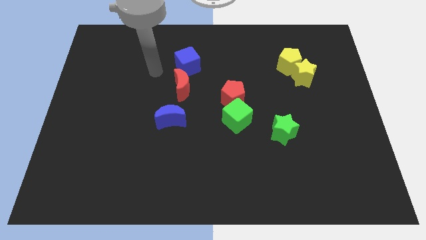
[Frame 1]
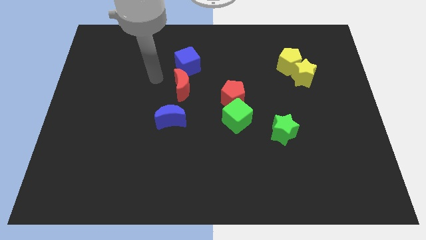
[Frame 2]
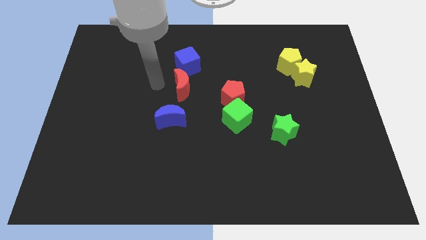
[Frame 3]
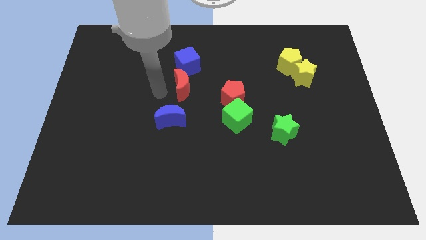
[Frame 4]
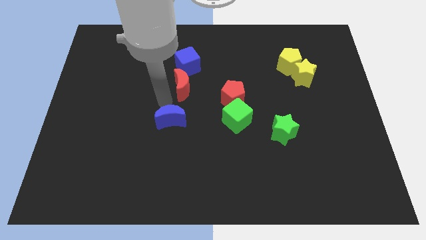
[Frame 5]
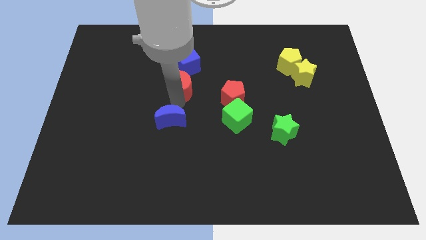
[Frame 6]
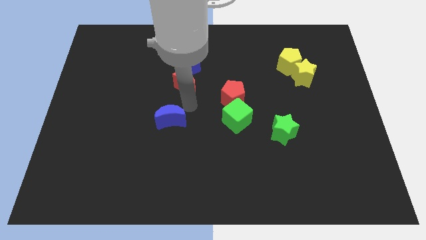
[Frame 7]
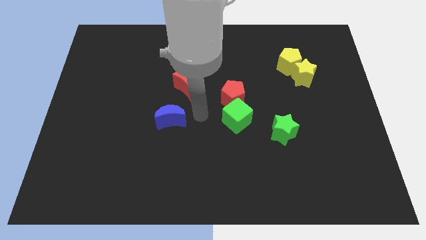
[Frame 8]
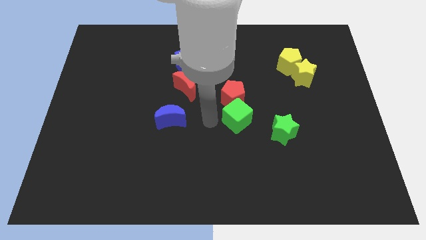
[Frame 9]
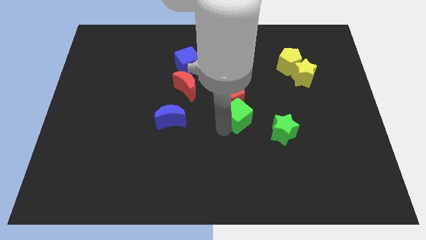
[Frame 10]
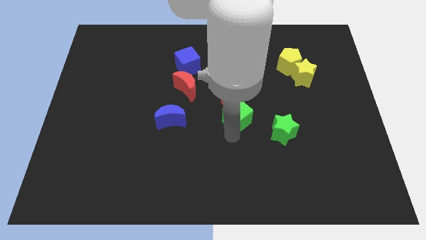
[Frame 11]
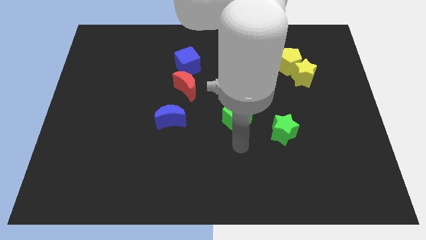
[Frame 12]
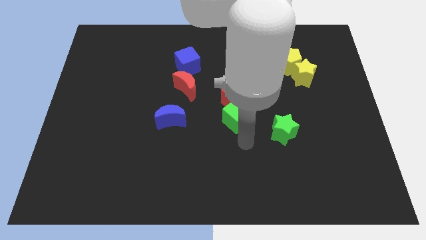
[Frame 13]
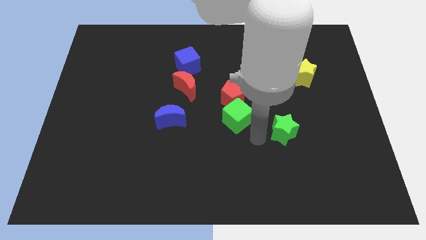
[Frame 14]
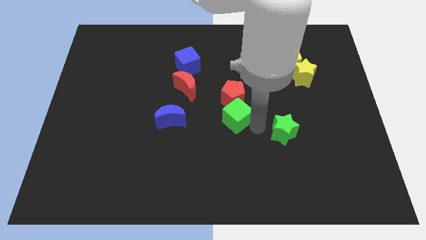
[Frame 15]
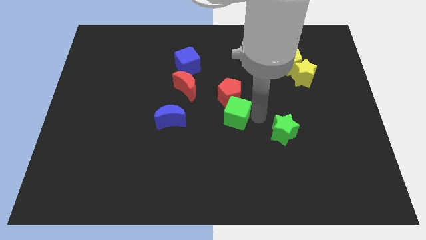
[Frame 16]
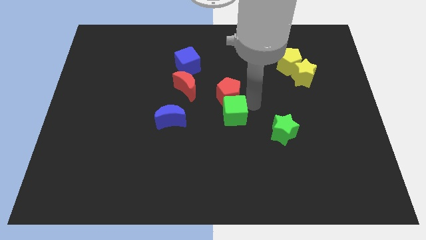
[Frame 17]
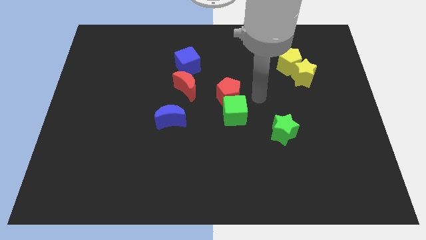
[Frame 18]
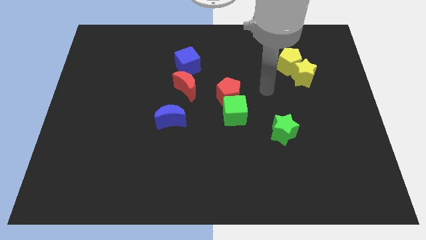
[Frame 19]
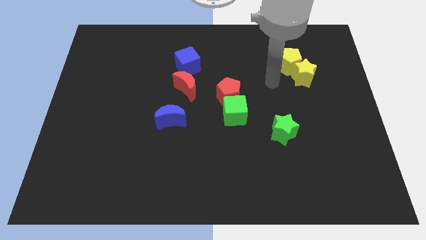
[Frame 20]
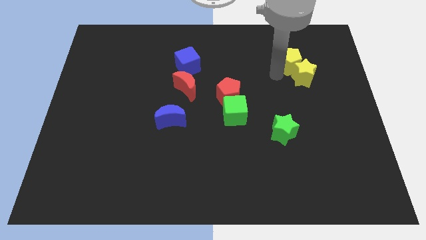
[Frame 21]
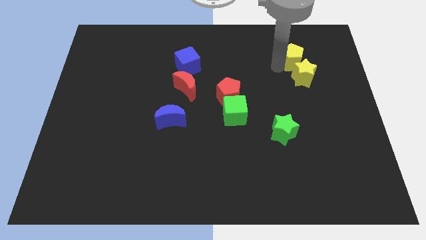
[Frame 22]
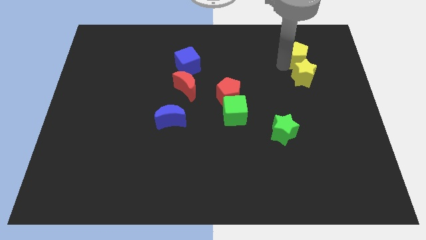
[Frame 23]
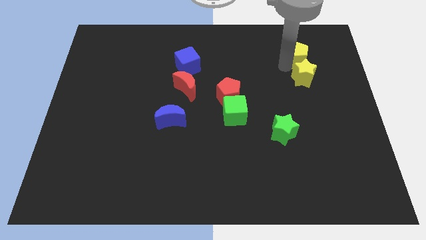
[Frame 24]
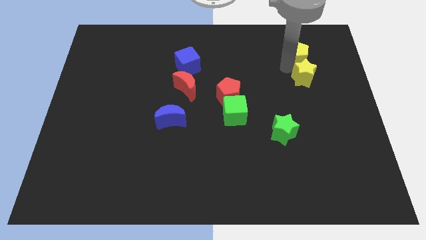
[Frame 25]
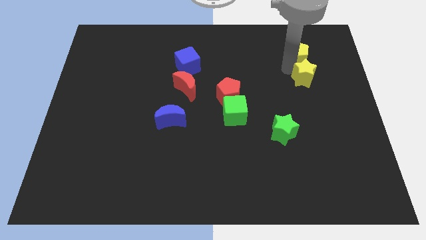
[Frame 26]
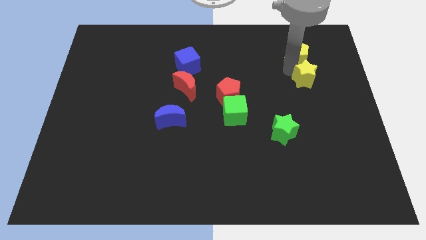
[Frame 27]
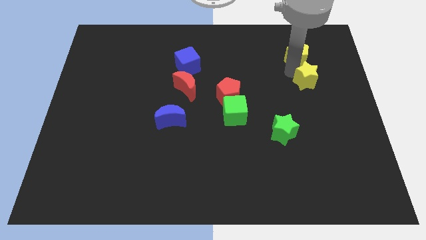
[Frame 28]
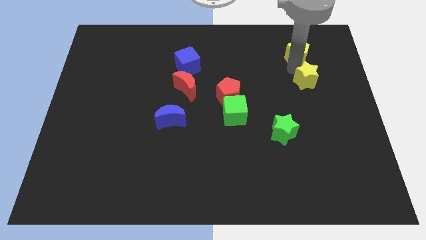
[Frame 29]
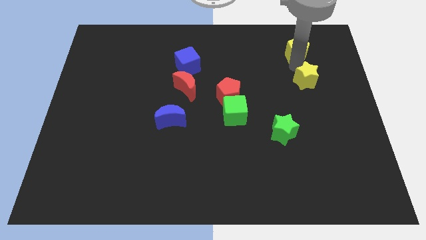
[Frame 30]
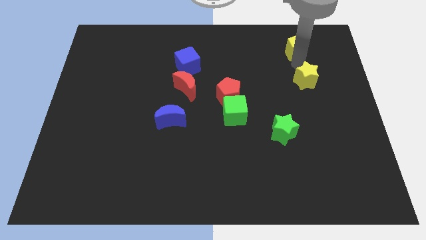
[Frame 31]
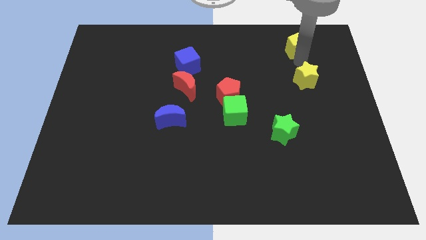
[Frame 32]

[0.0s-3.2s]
separate the yellow star from the yellow pentagon

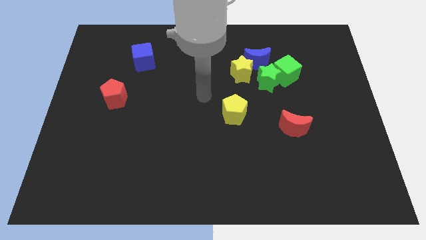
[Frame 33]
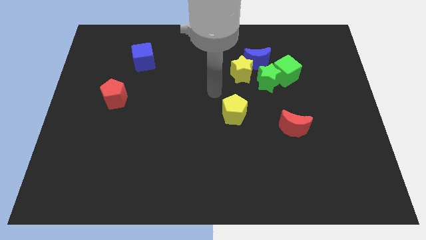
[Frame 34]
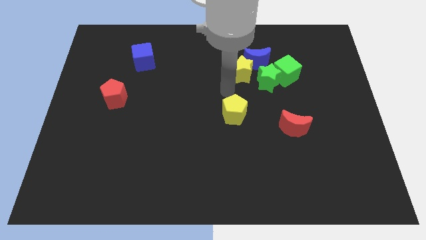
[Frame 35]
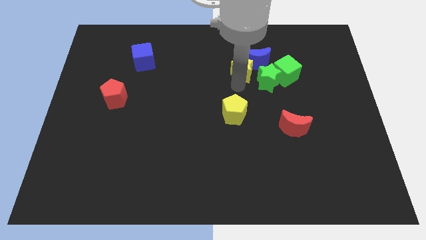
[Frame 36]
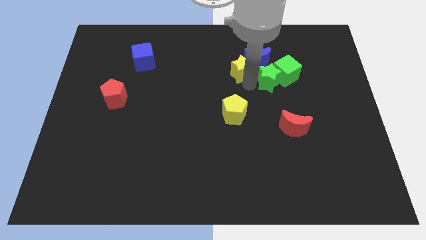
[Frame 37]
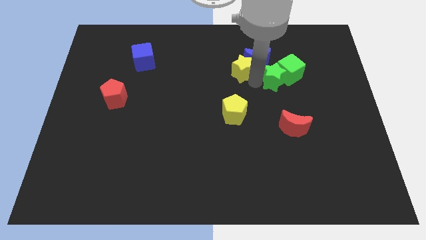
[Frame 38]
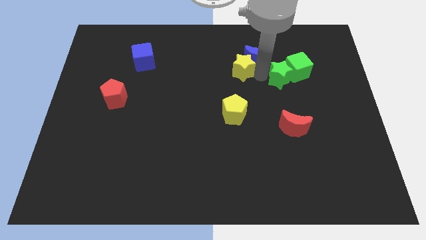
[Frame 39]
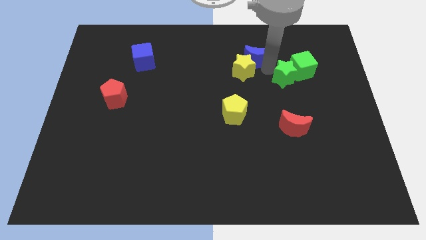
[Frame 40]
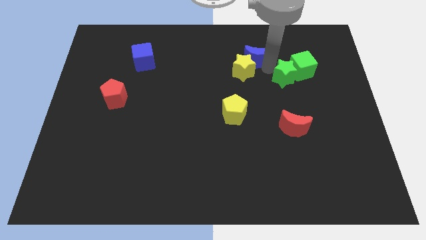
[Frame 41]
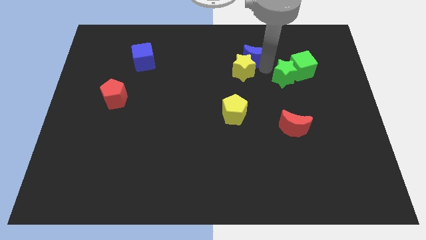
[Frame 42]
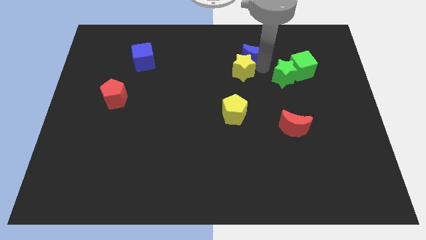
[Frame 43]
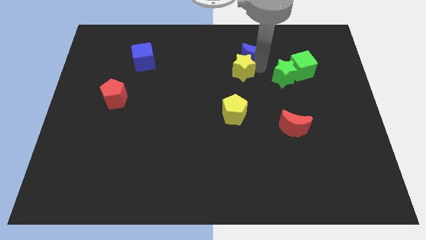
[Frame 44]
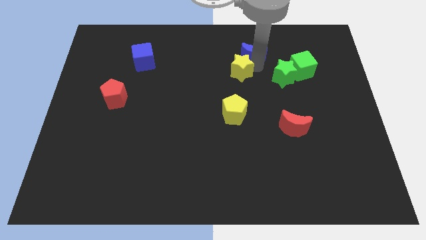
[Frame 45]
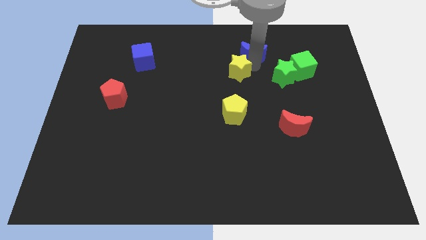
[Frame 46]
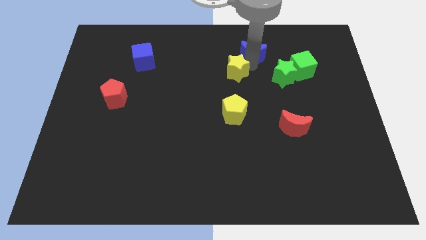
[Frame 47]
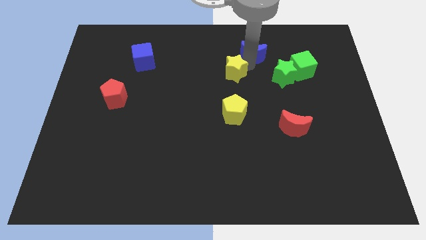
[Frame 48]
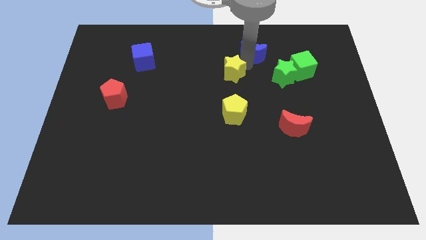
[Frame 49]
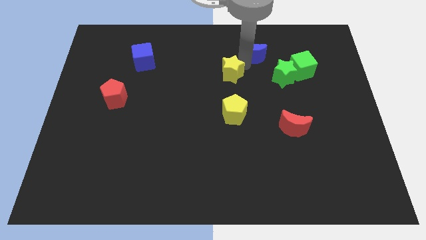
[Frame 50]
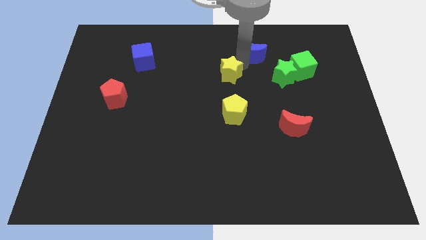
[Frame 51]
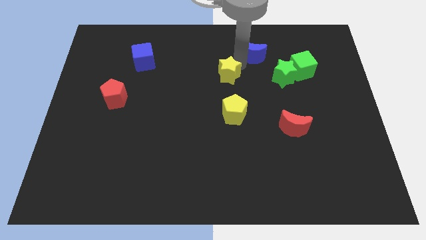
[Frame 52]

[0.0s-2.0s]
separate the yellow star from the blue moon and green star

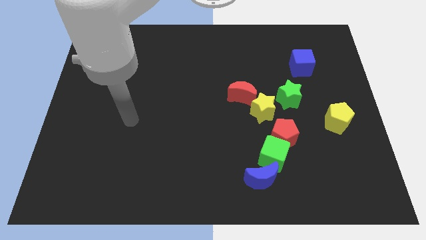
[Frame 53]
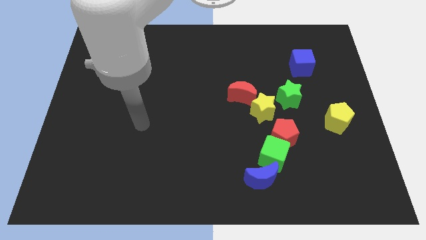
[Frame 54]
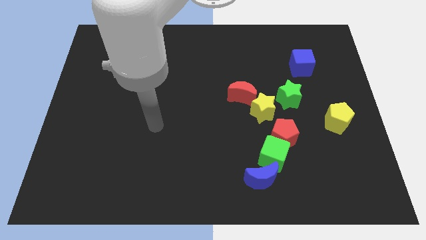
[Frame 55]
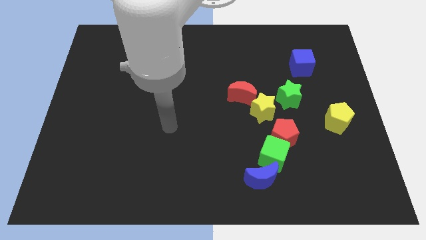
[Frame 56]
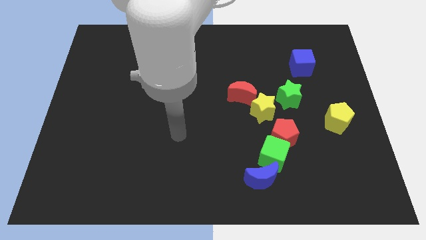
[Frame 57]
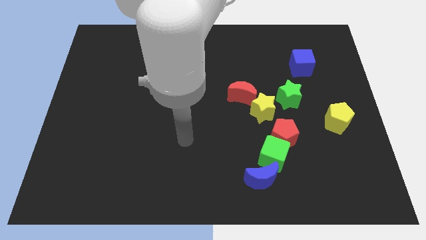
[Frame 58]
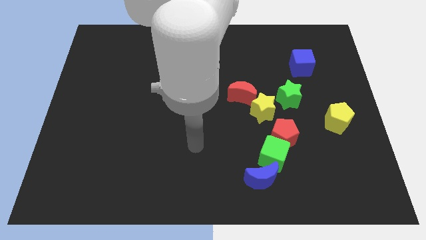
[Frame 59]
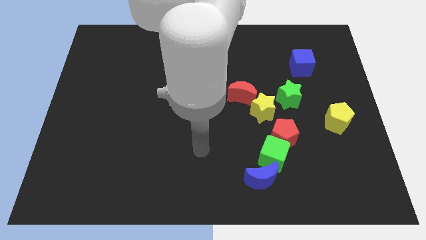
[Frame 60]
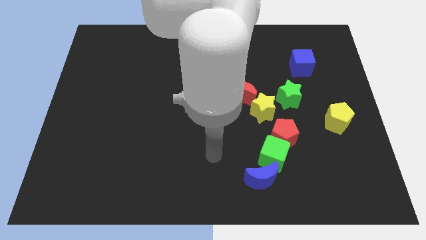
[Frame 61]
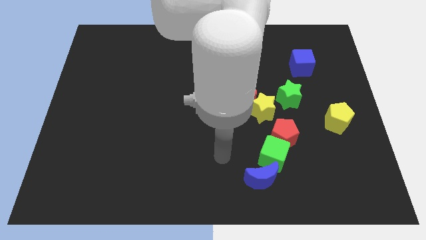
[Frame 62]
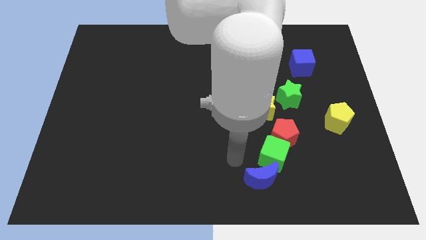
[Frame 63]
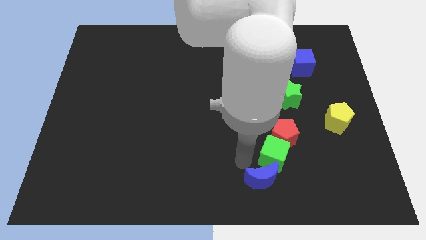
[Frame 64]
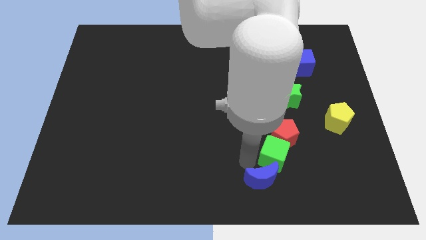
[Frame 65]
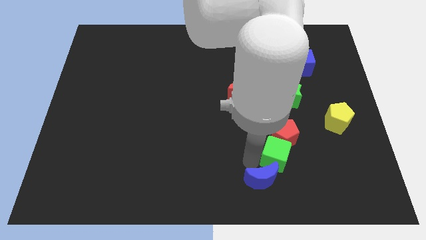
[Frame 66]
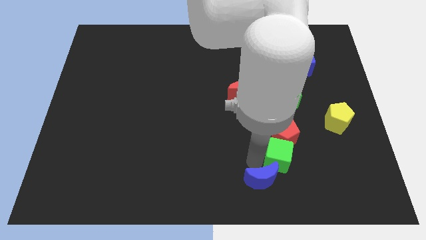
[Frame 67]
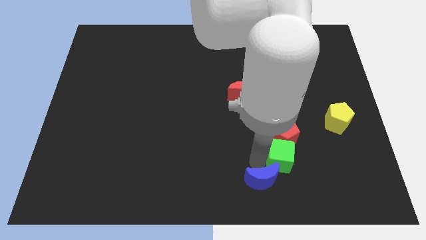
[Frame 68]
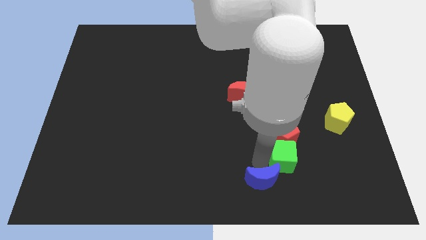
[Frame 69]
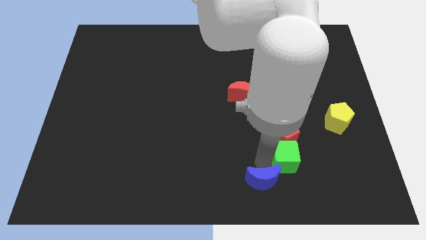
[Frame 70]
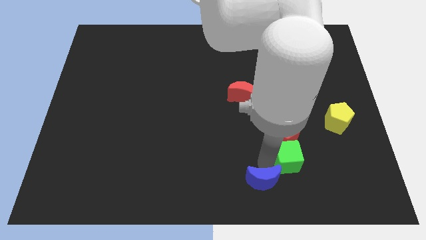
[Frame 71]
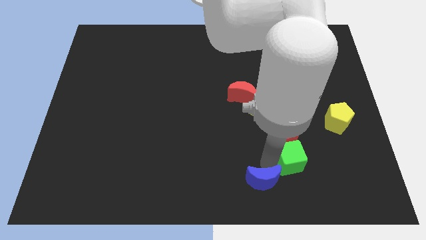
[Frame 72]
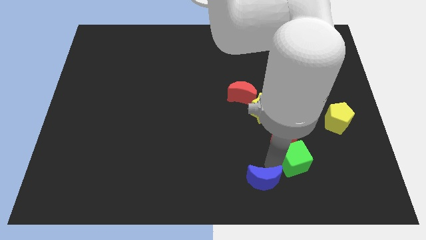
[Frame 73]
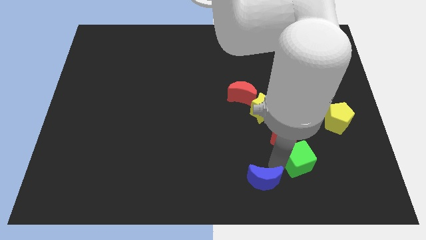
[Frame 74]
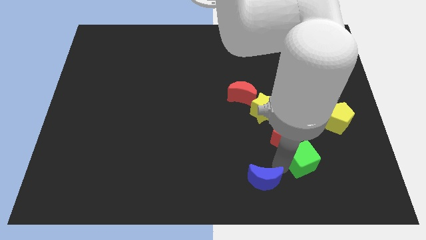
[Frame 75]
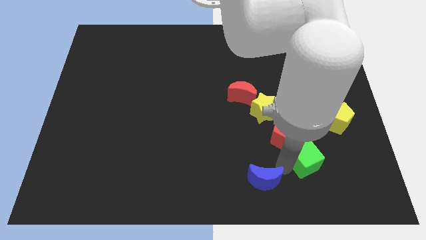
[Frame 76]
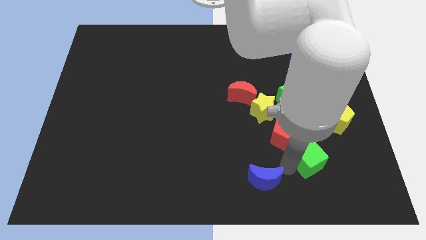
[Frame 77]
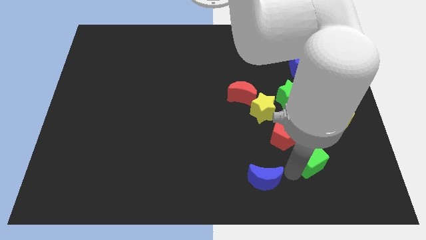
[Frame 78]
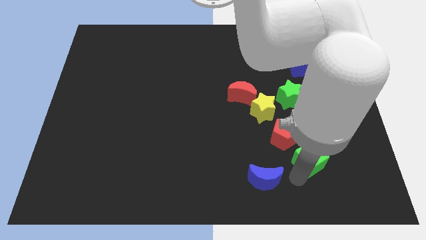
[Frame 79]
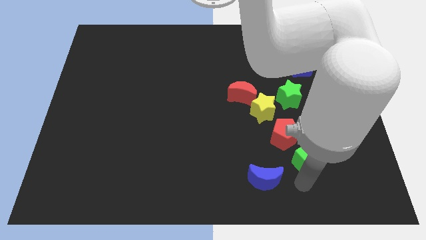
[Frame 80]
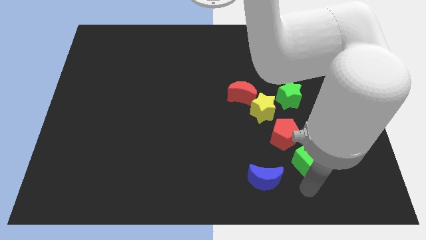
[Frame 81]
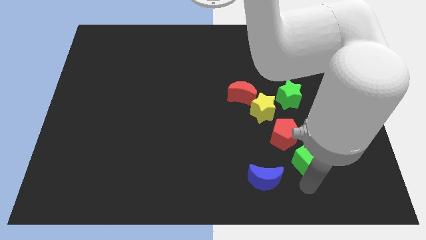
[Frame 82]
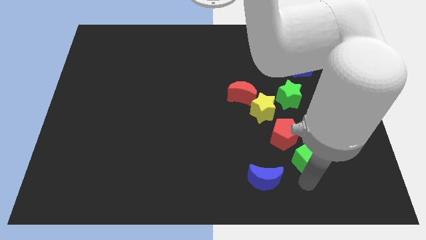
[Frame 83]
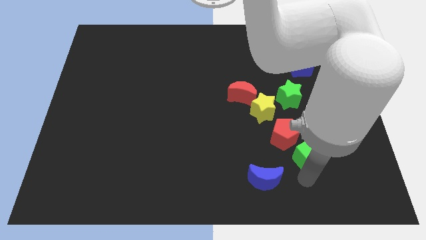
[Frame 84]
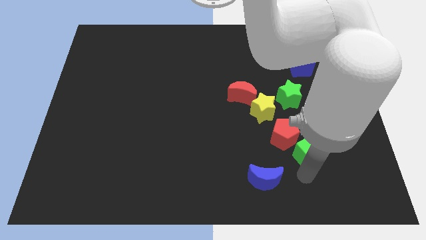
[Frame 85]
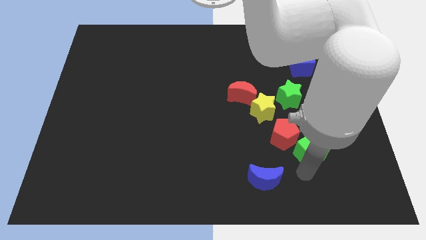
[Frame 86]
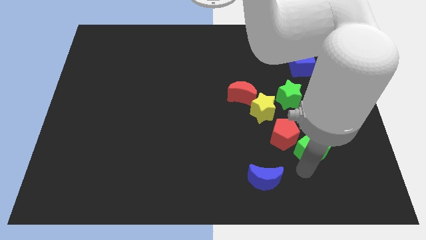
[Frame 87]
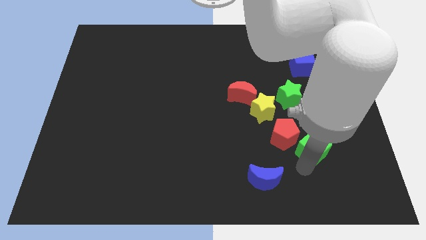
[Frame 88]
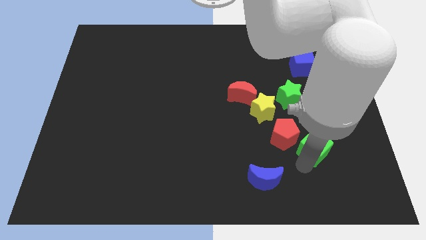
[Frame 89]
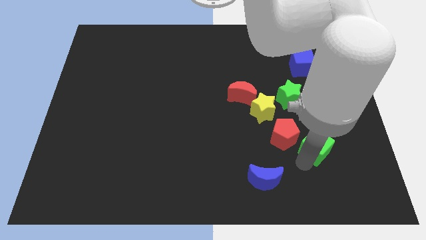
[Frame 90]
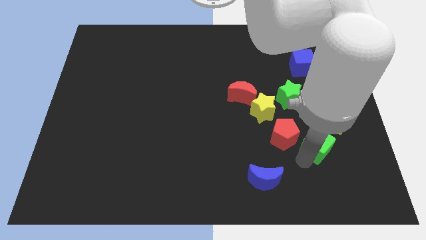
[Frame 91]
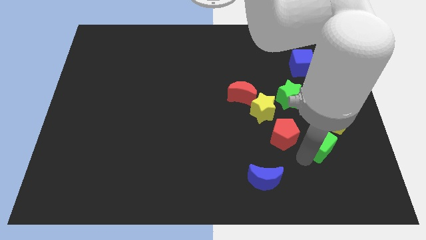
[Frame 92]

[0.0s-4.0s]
move the green cube away from the red pentagon and blue moon

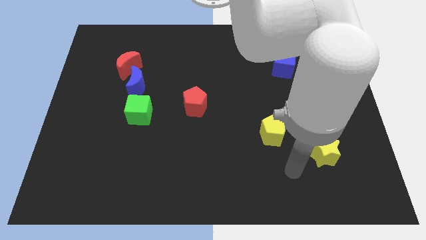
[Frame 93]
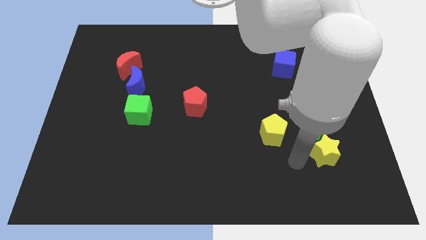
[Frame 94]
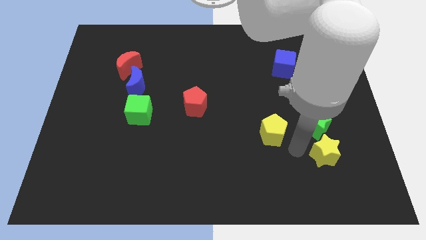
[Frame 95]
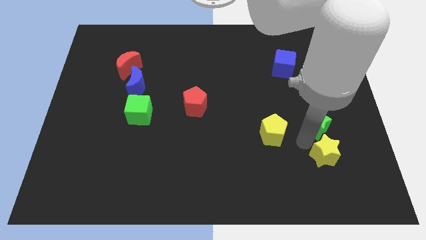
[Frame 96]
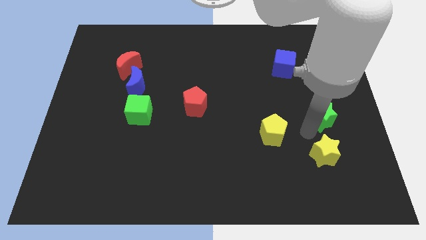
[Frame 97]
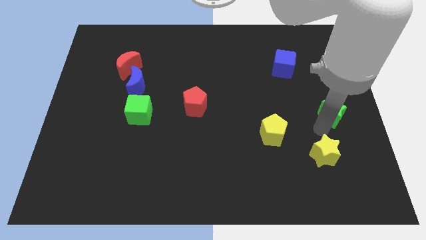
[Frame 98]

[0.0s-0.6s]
separate the yellow star from the green star
